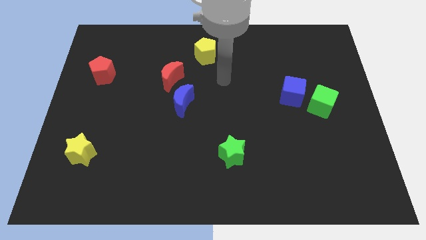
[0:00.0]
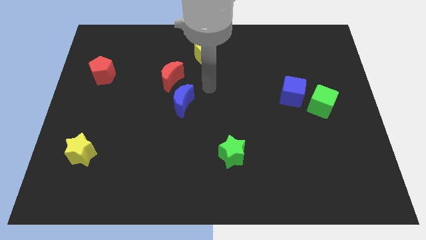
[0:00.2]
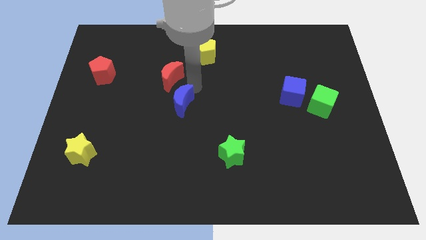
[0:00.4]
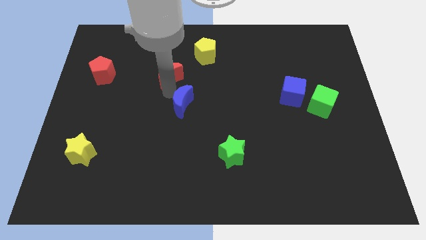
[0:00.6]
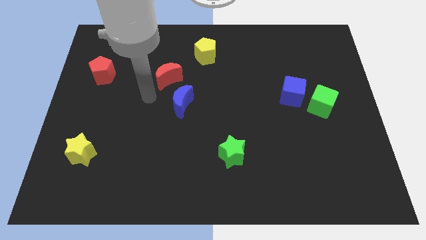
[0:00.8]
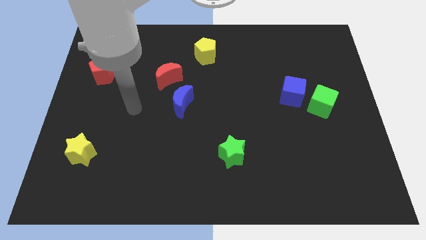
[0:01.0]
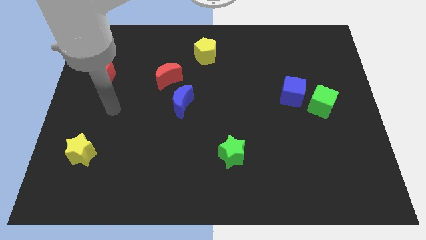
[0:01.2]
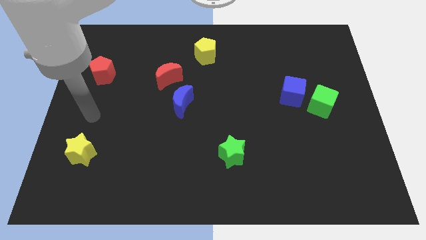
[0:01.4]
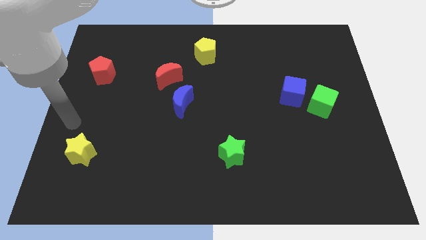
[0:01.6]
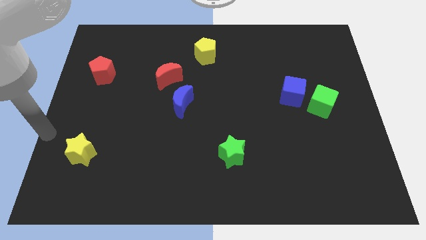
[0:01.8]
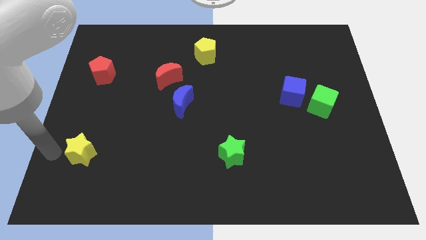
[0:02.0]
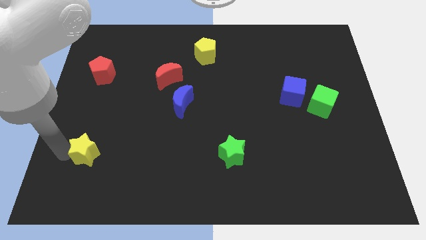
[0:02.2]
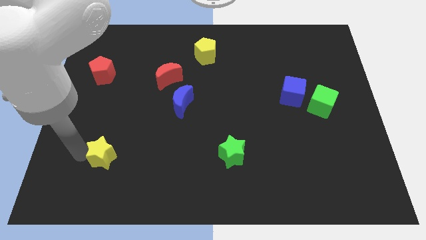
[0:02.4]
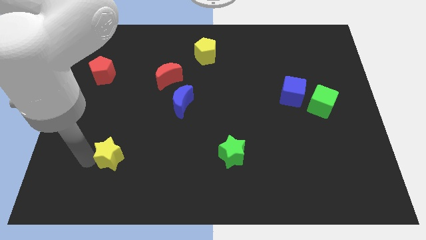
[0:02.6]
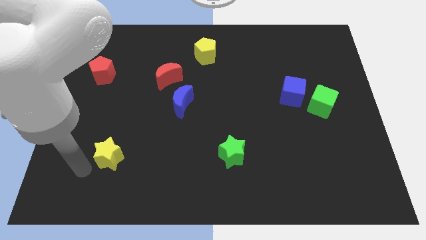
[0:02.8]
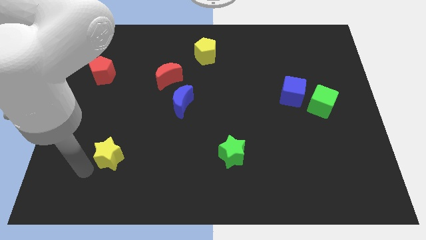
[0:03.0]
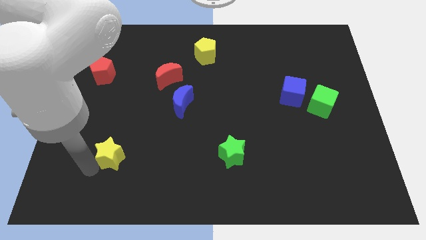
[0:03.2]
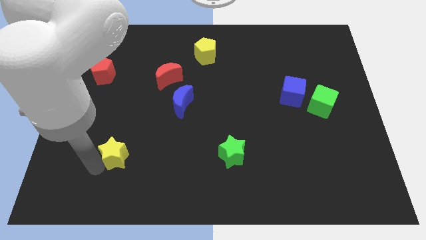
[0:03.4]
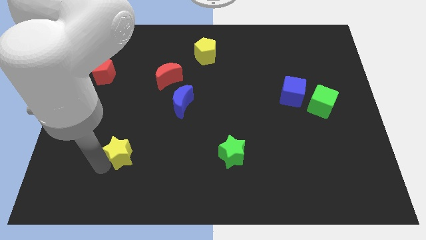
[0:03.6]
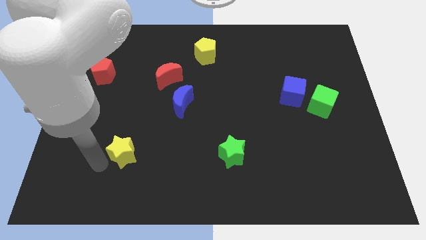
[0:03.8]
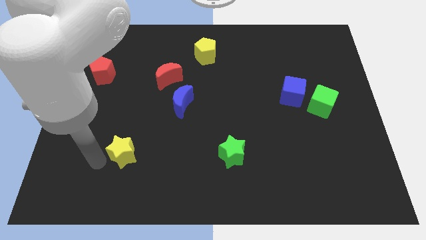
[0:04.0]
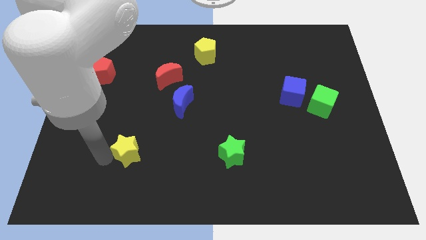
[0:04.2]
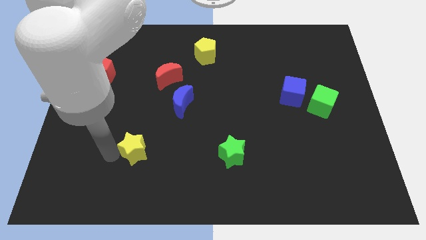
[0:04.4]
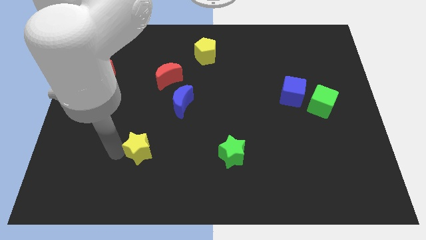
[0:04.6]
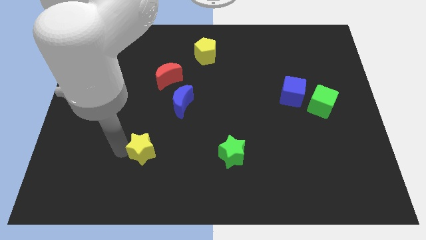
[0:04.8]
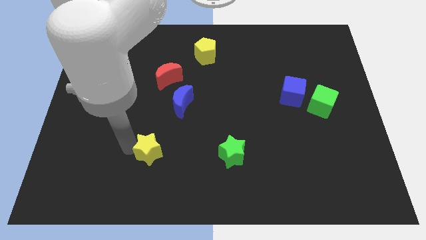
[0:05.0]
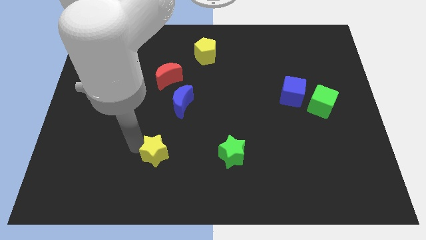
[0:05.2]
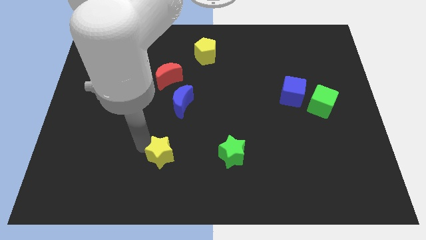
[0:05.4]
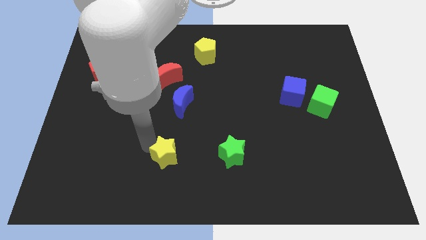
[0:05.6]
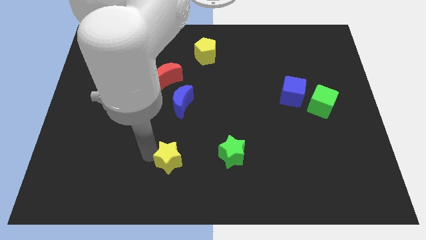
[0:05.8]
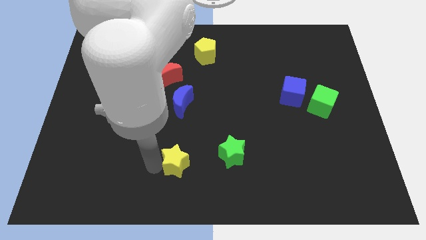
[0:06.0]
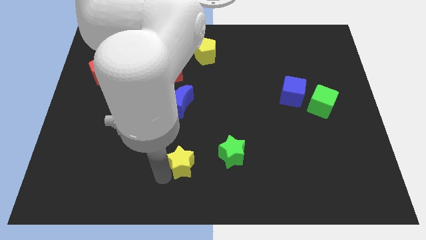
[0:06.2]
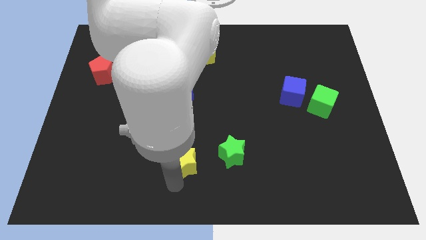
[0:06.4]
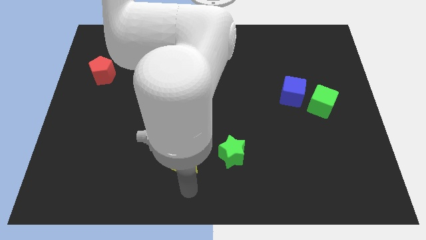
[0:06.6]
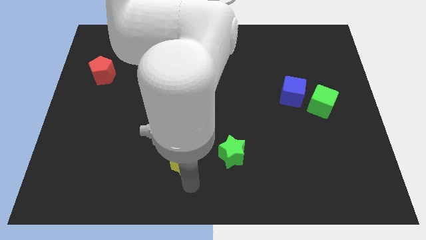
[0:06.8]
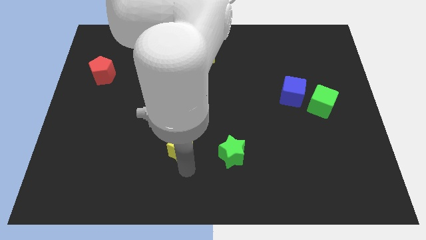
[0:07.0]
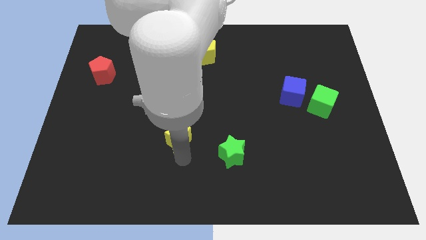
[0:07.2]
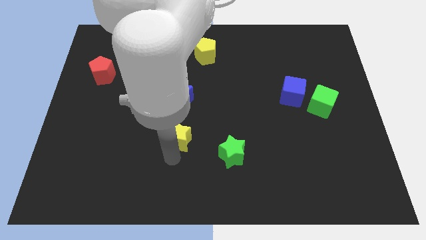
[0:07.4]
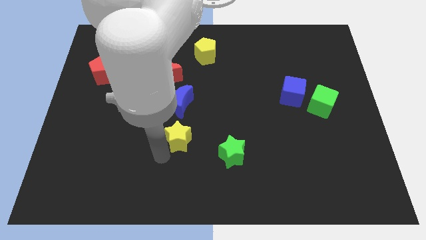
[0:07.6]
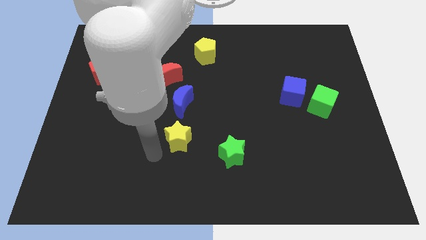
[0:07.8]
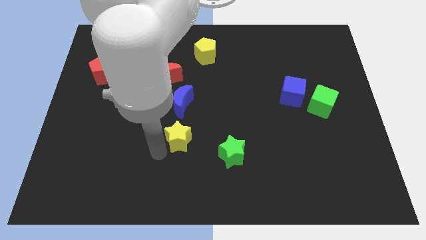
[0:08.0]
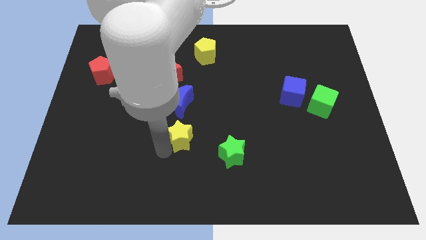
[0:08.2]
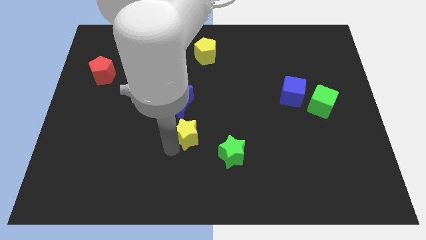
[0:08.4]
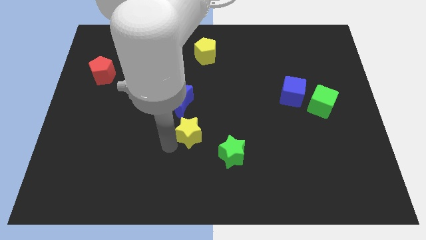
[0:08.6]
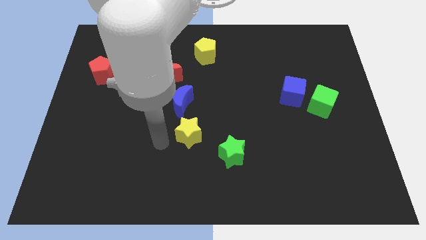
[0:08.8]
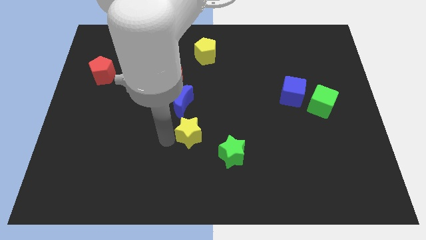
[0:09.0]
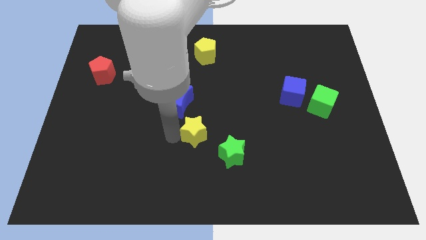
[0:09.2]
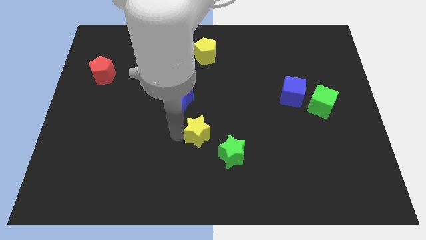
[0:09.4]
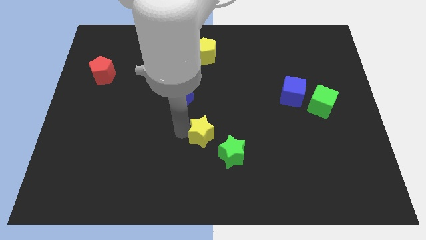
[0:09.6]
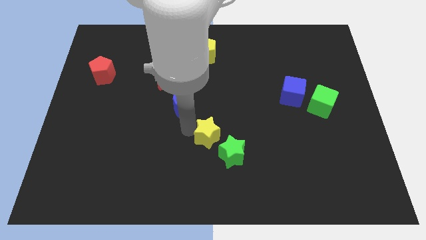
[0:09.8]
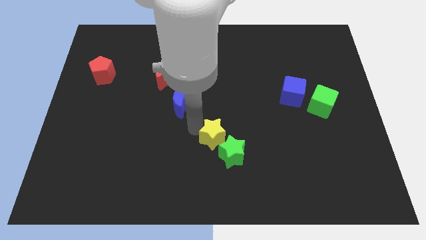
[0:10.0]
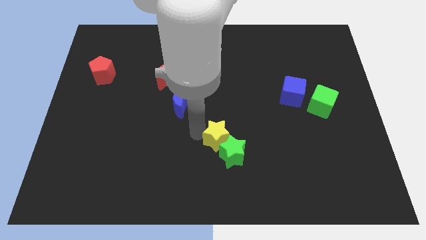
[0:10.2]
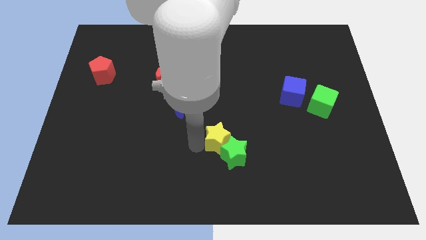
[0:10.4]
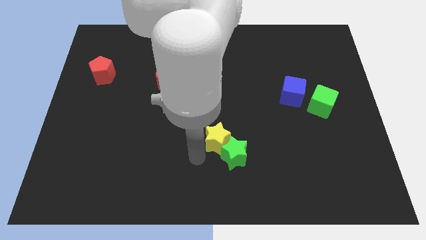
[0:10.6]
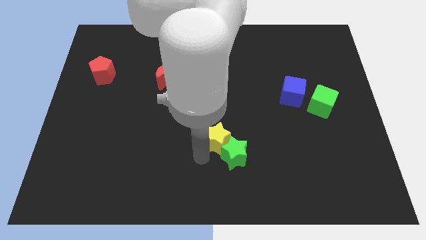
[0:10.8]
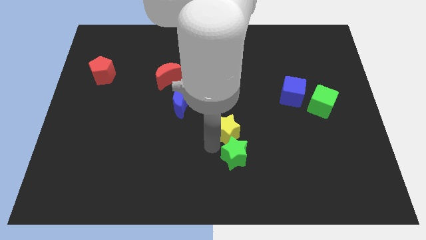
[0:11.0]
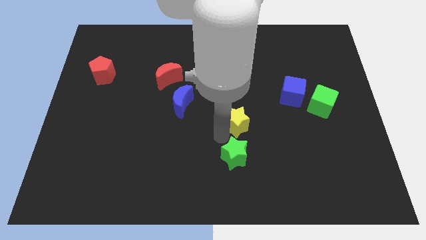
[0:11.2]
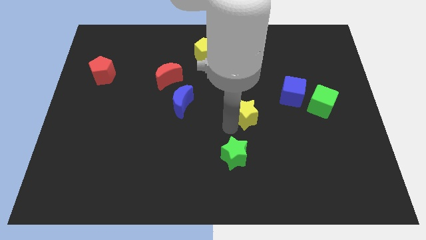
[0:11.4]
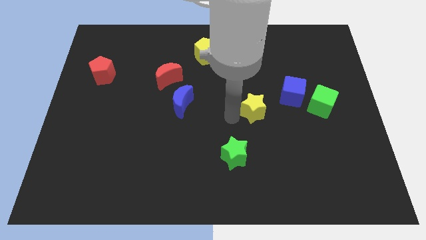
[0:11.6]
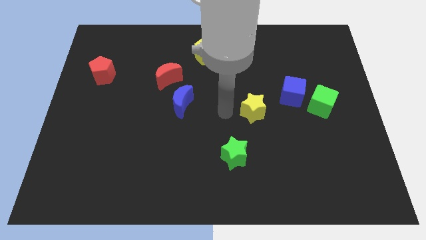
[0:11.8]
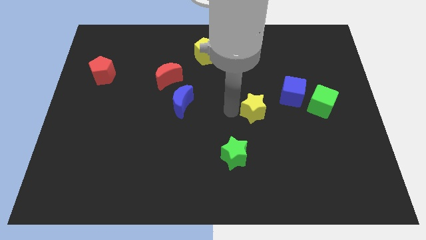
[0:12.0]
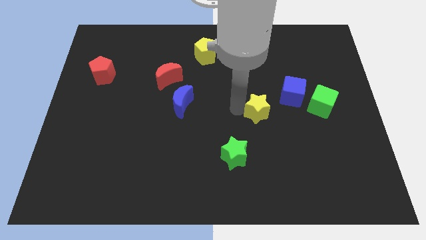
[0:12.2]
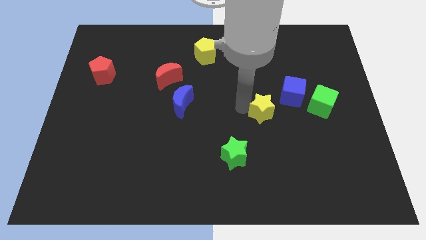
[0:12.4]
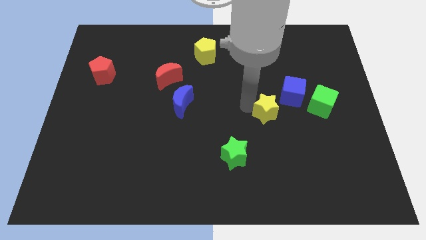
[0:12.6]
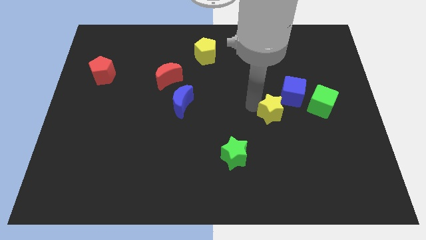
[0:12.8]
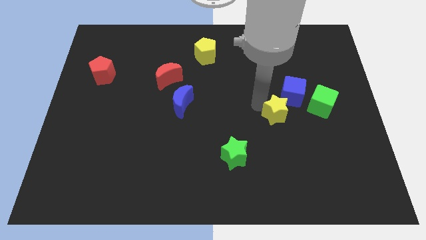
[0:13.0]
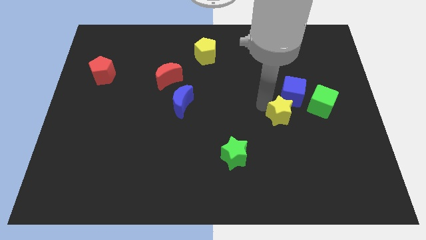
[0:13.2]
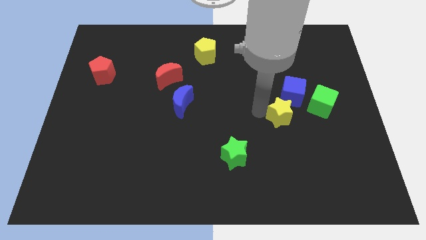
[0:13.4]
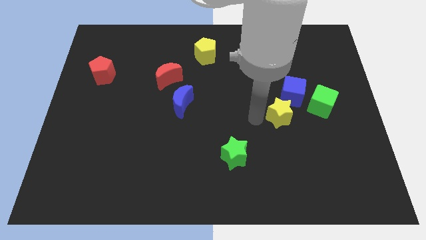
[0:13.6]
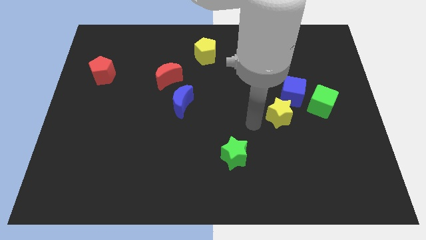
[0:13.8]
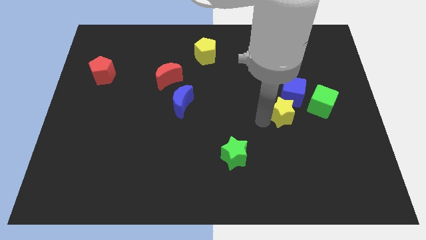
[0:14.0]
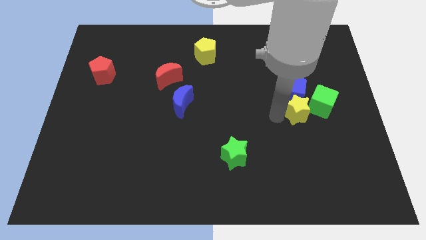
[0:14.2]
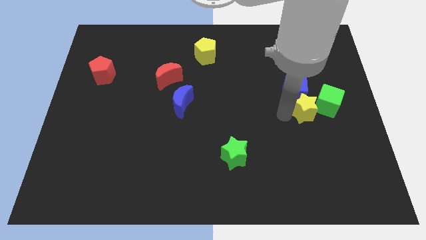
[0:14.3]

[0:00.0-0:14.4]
slide the yellow star to the green cube
